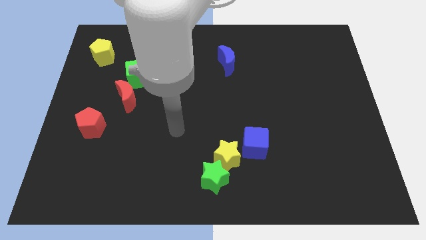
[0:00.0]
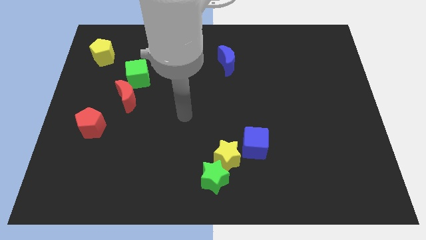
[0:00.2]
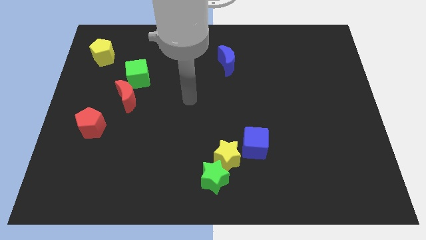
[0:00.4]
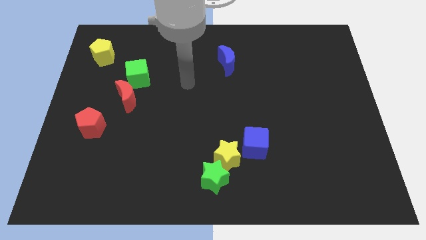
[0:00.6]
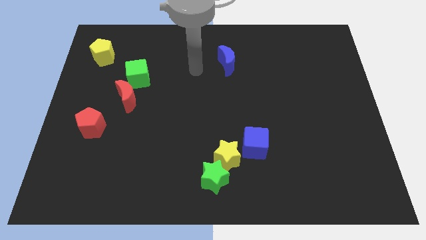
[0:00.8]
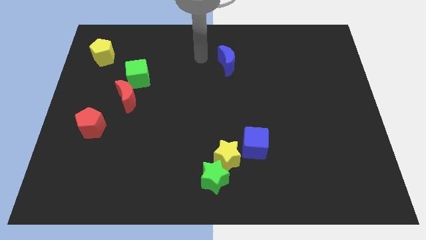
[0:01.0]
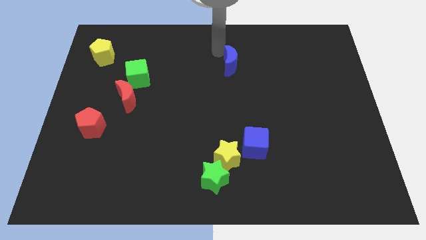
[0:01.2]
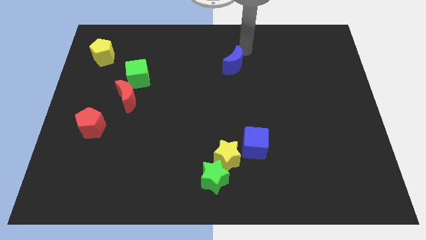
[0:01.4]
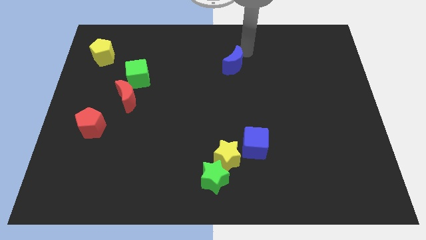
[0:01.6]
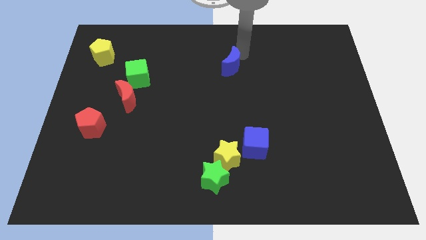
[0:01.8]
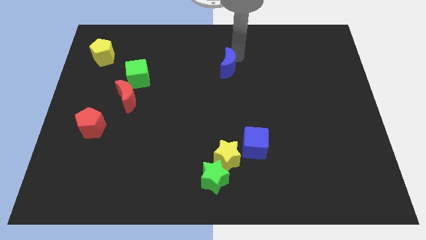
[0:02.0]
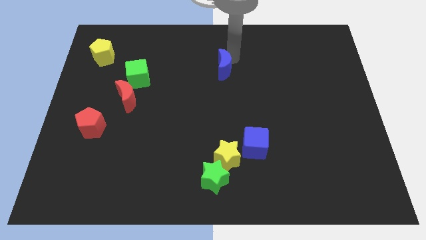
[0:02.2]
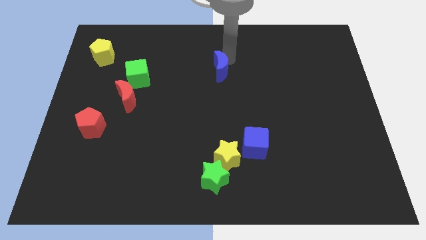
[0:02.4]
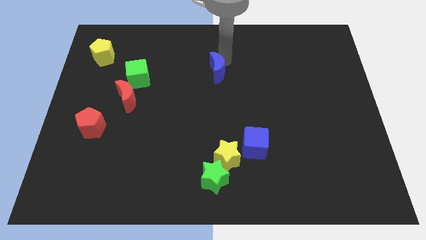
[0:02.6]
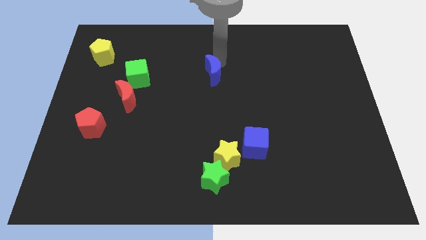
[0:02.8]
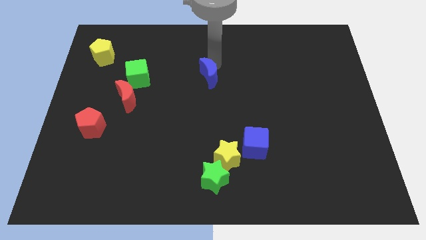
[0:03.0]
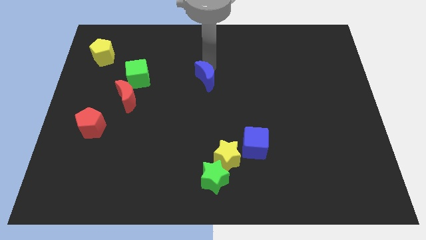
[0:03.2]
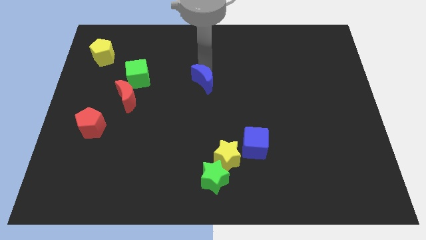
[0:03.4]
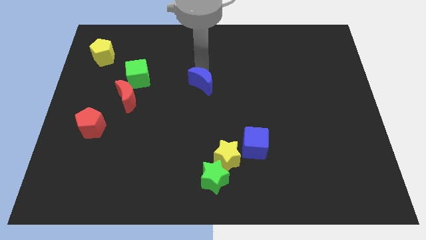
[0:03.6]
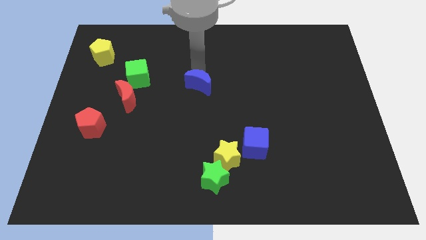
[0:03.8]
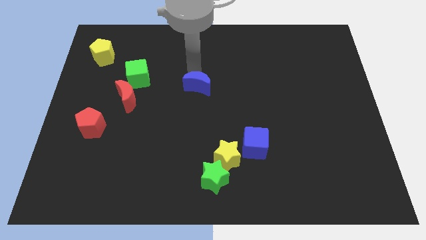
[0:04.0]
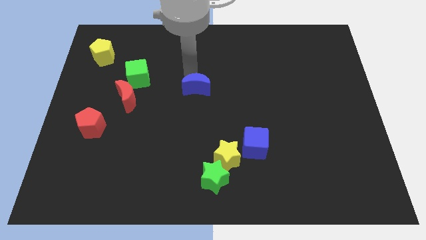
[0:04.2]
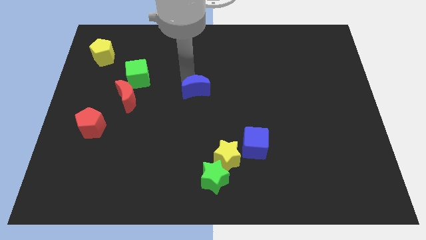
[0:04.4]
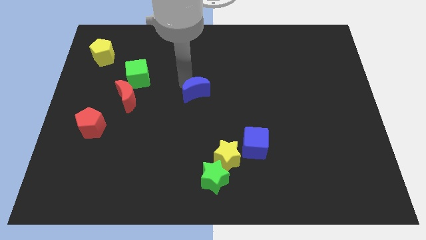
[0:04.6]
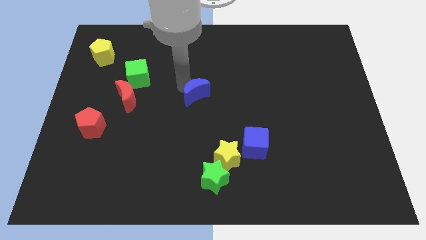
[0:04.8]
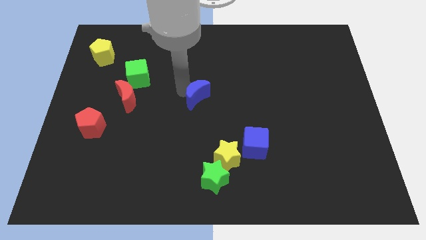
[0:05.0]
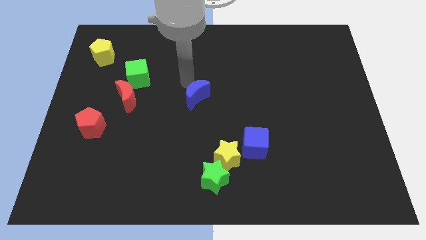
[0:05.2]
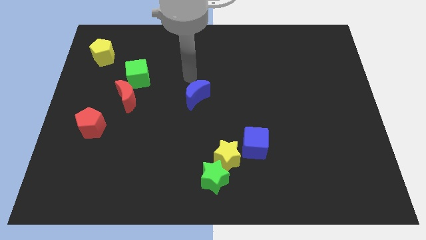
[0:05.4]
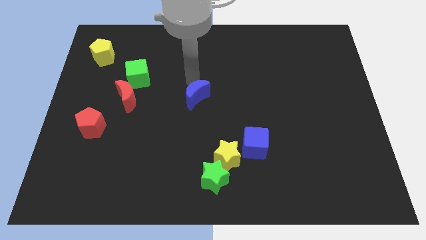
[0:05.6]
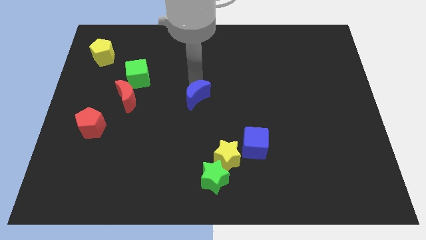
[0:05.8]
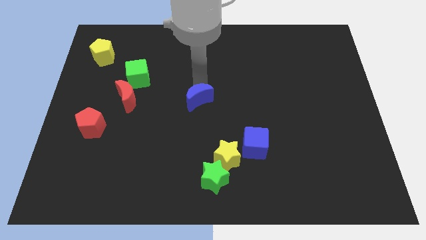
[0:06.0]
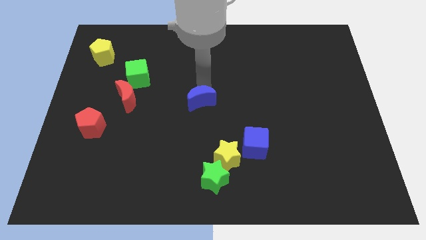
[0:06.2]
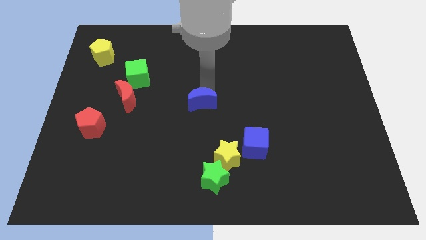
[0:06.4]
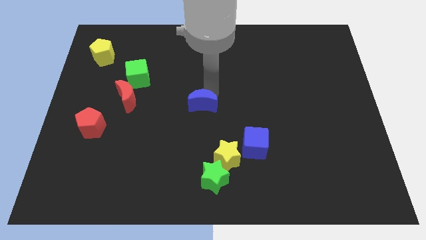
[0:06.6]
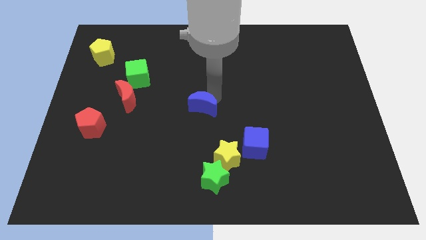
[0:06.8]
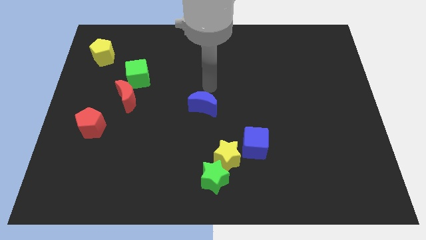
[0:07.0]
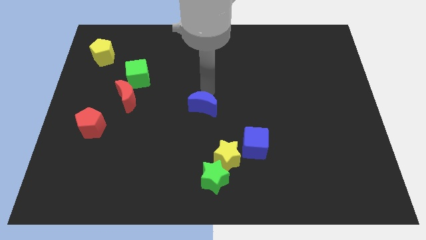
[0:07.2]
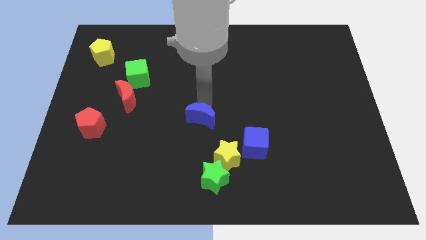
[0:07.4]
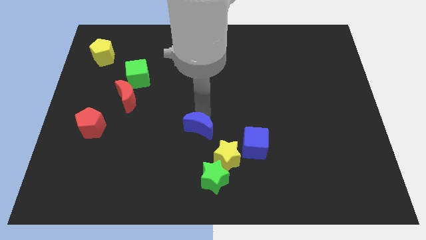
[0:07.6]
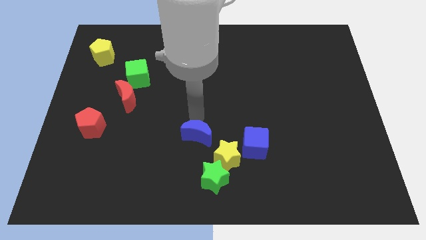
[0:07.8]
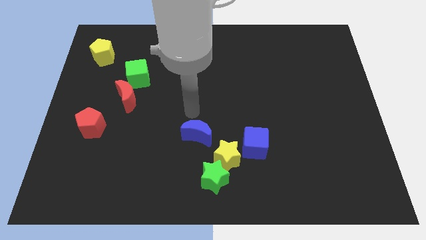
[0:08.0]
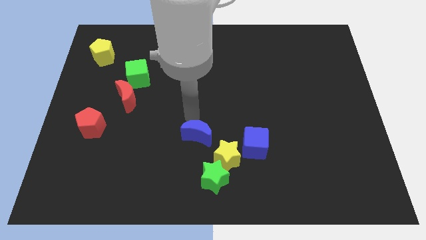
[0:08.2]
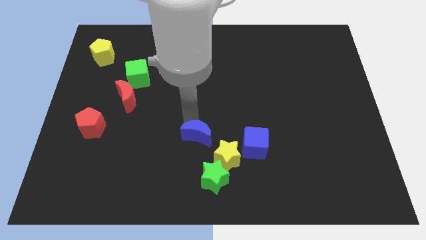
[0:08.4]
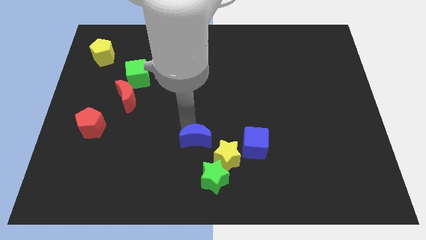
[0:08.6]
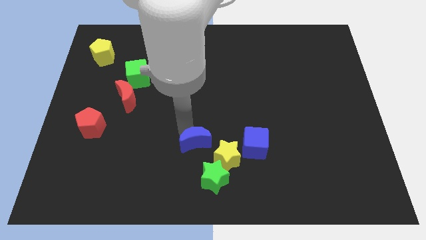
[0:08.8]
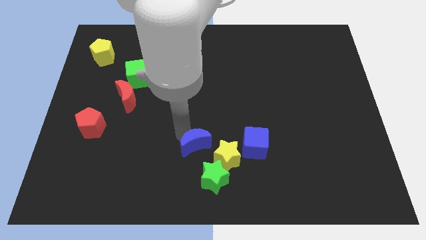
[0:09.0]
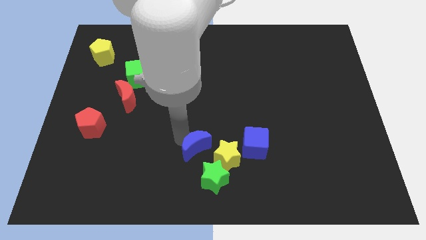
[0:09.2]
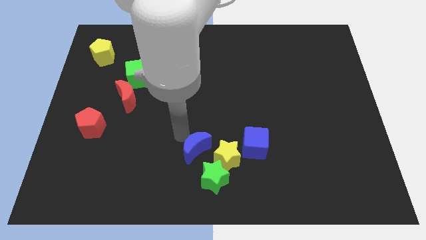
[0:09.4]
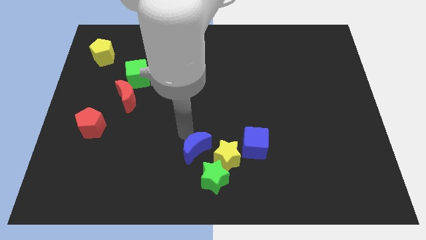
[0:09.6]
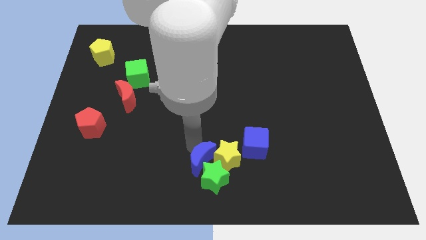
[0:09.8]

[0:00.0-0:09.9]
push the blue moon next to the green star

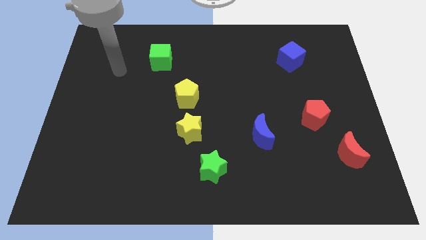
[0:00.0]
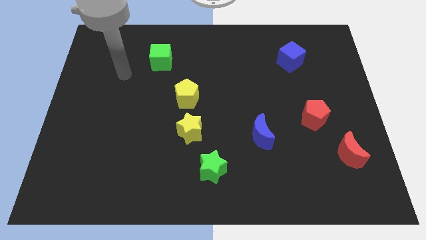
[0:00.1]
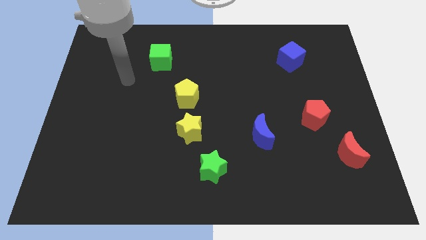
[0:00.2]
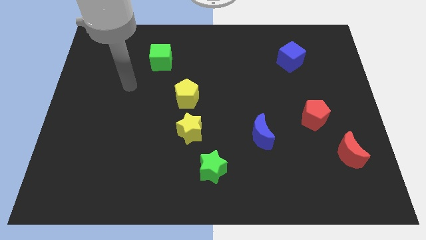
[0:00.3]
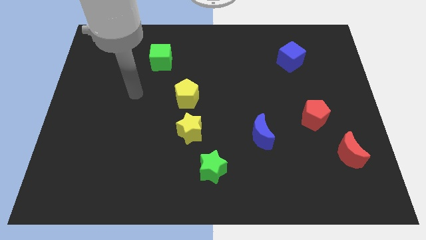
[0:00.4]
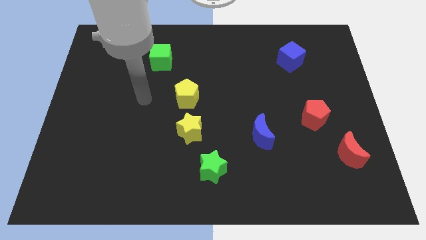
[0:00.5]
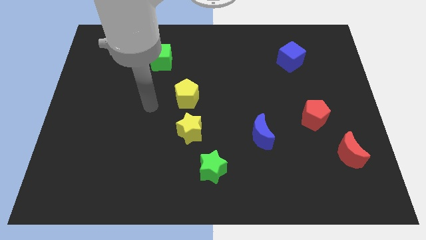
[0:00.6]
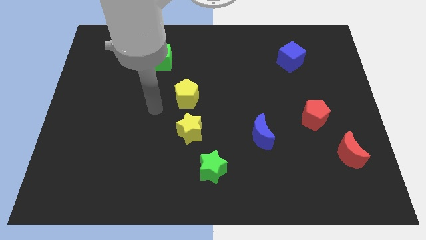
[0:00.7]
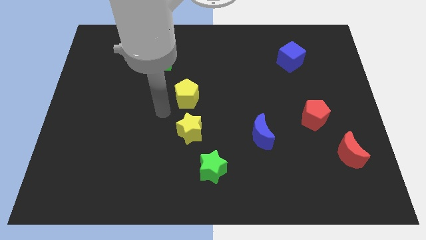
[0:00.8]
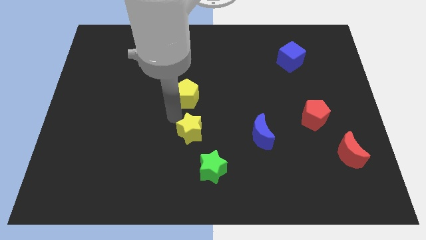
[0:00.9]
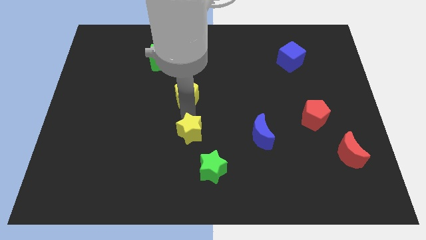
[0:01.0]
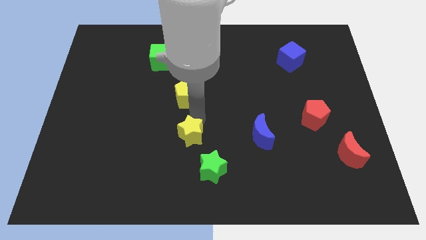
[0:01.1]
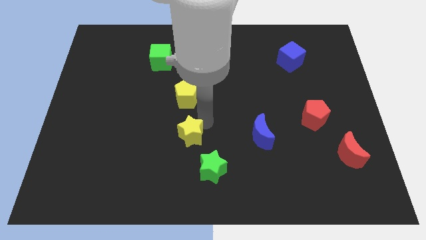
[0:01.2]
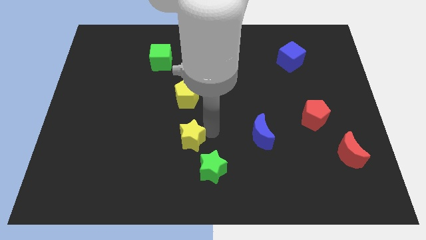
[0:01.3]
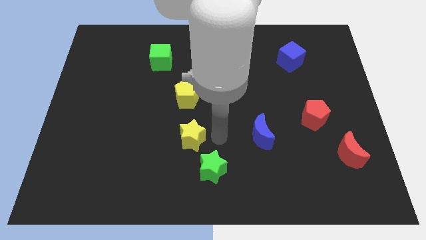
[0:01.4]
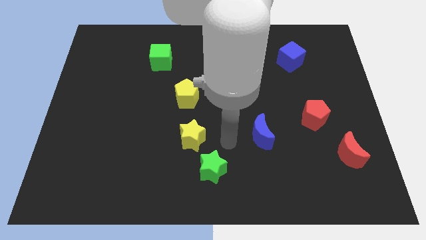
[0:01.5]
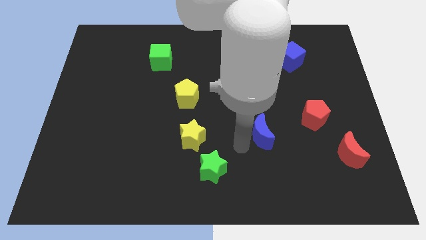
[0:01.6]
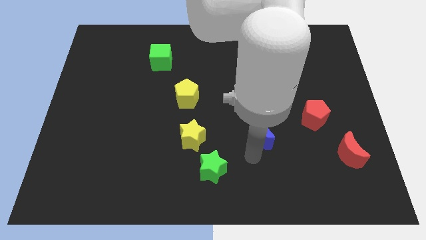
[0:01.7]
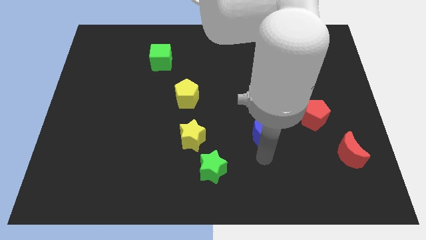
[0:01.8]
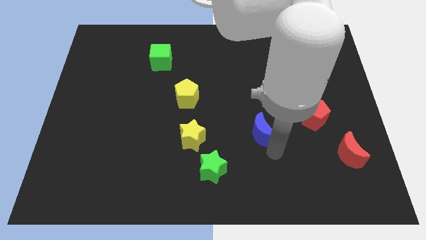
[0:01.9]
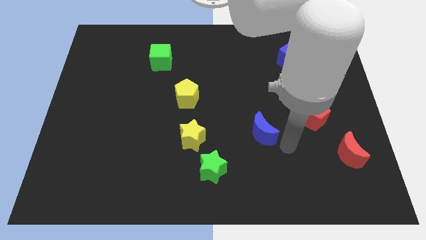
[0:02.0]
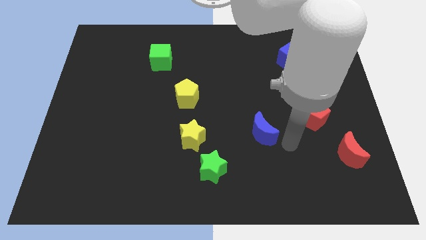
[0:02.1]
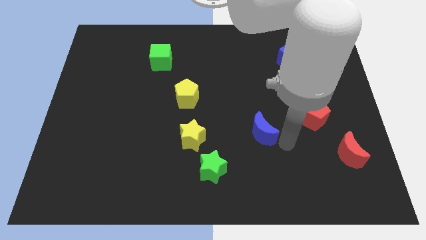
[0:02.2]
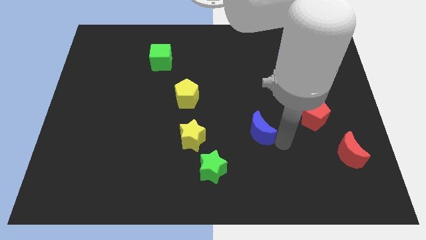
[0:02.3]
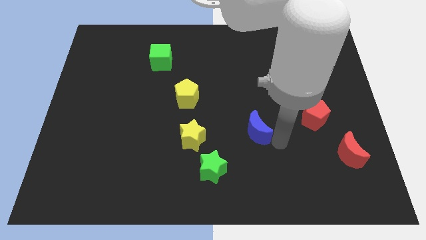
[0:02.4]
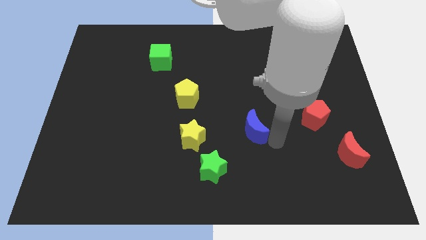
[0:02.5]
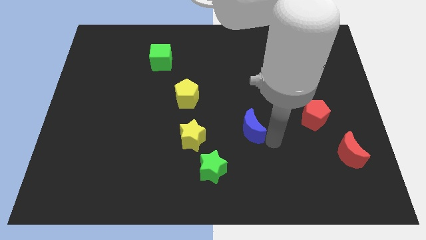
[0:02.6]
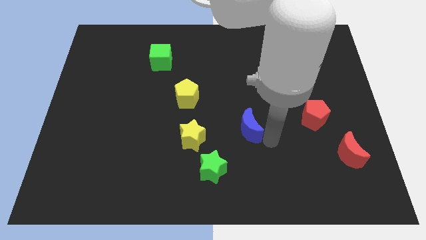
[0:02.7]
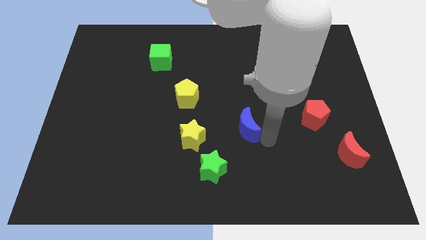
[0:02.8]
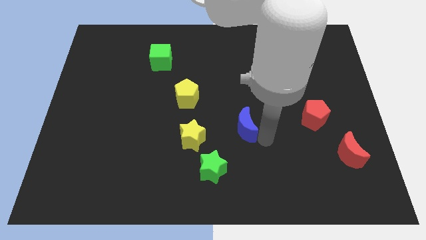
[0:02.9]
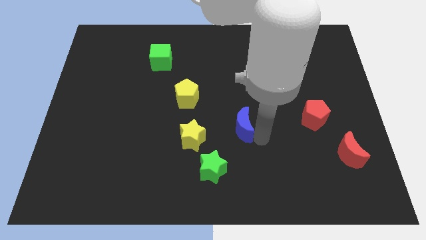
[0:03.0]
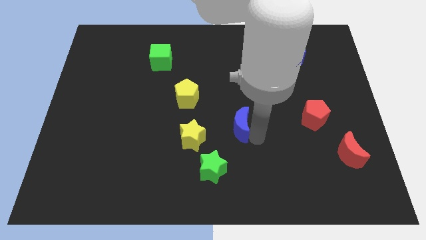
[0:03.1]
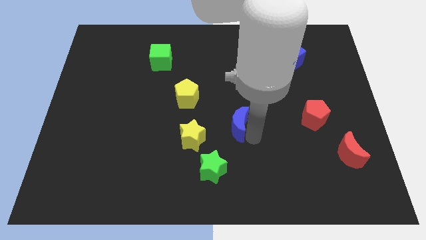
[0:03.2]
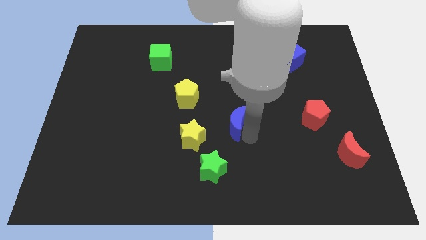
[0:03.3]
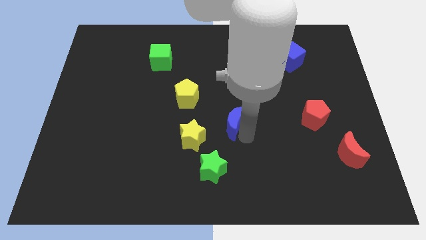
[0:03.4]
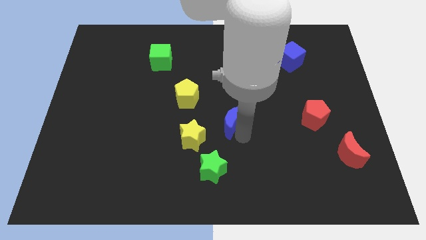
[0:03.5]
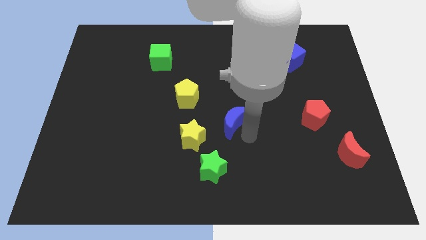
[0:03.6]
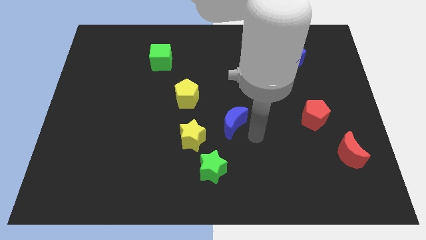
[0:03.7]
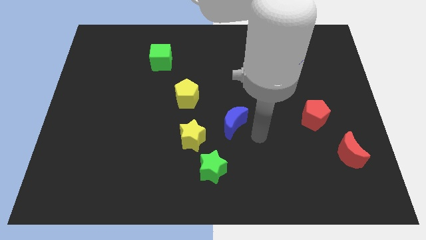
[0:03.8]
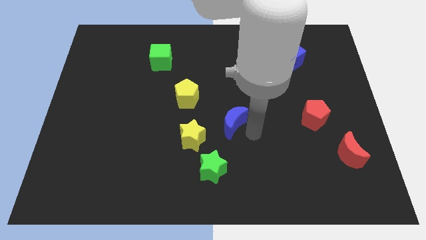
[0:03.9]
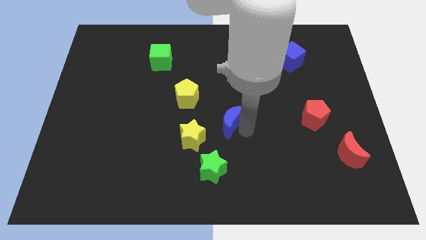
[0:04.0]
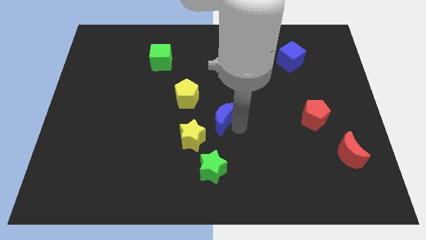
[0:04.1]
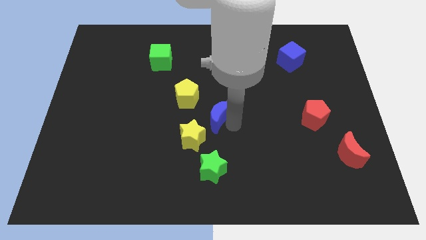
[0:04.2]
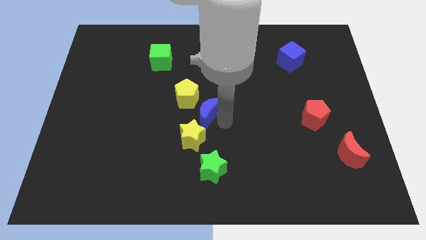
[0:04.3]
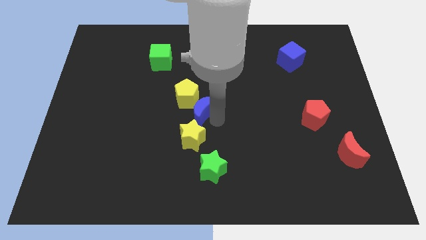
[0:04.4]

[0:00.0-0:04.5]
put the blue moon close to the yellow pentagon
